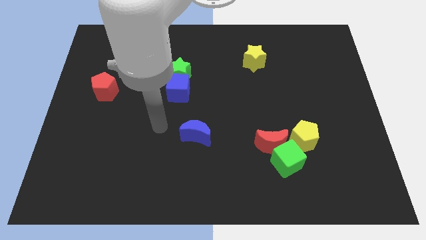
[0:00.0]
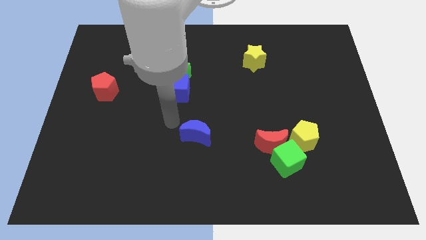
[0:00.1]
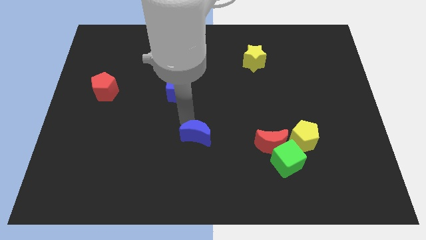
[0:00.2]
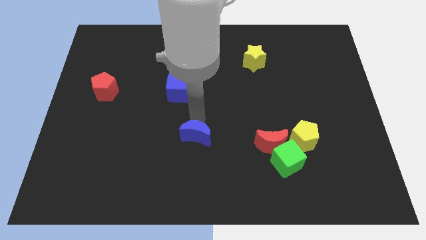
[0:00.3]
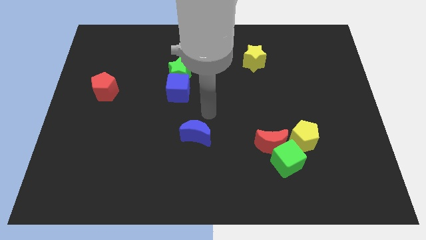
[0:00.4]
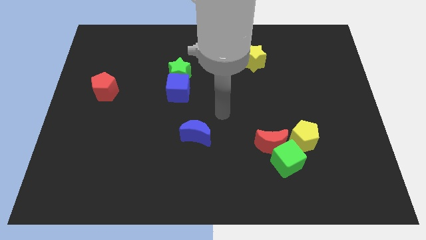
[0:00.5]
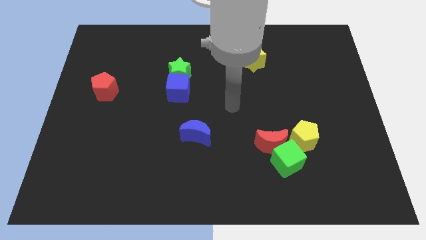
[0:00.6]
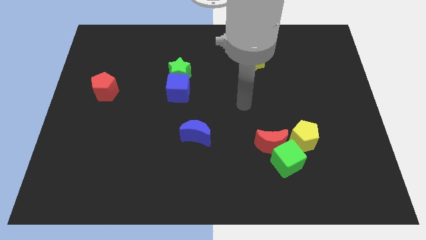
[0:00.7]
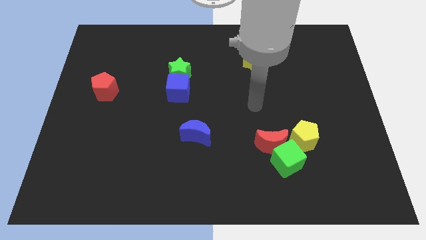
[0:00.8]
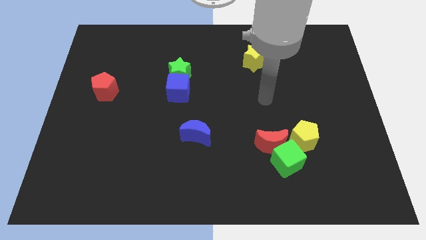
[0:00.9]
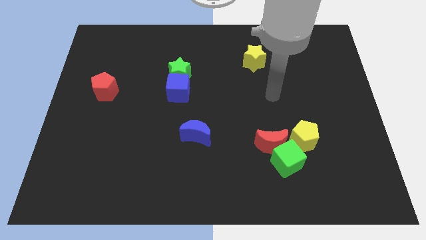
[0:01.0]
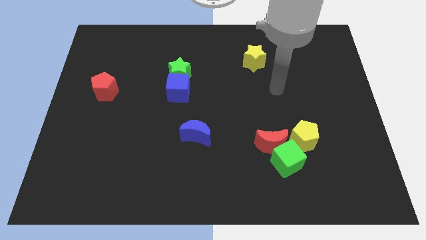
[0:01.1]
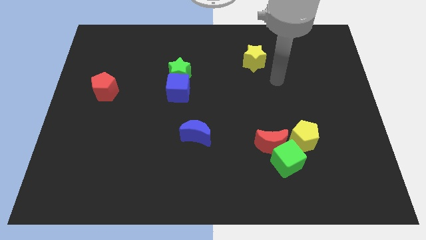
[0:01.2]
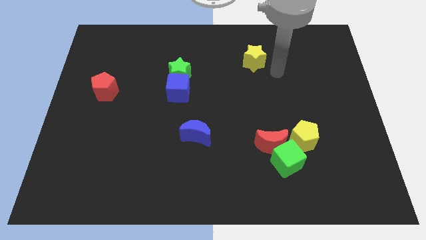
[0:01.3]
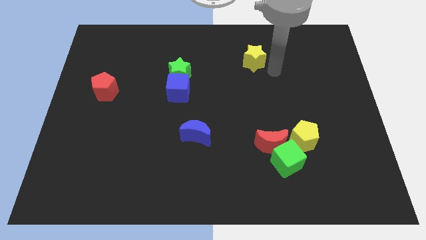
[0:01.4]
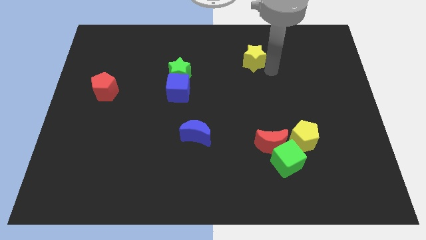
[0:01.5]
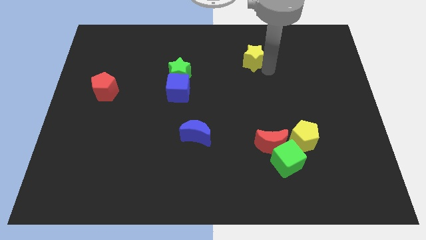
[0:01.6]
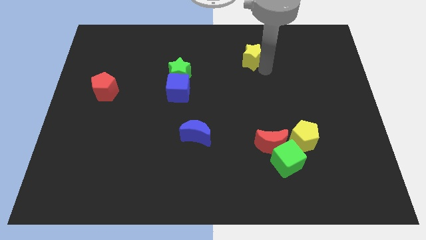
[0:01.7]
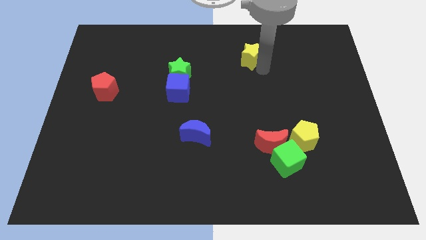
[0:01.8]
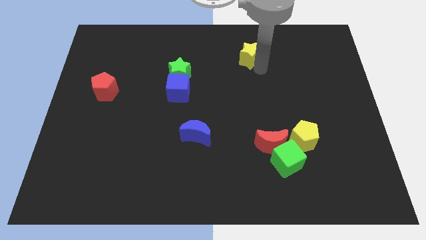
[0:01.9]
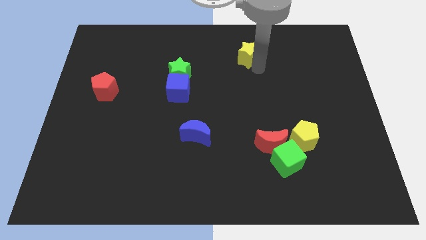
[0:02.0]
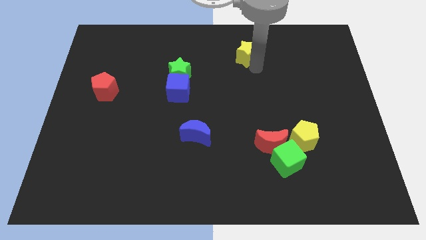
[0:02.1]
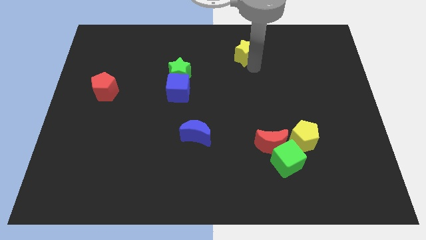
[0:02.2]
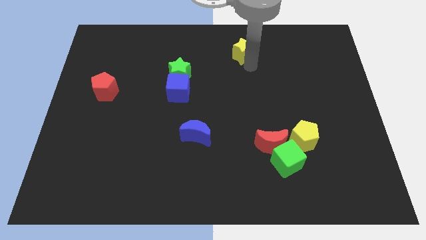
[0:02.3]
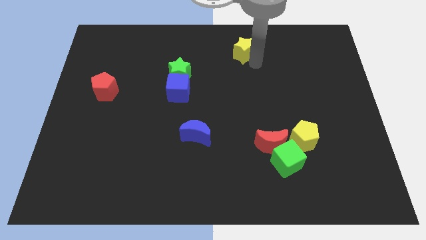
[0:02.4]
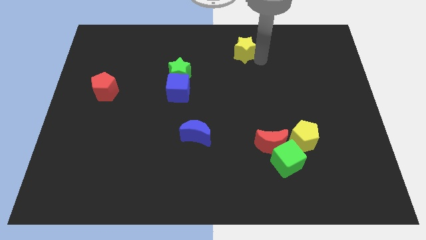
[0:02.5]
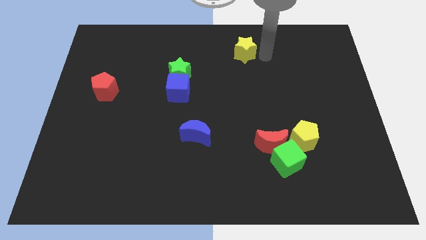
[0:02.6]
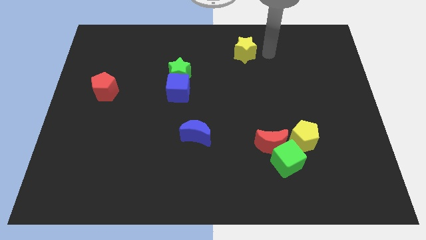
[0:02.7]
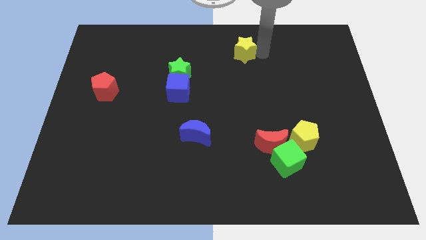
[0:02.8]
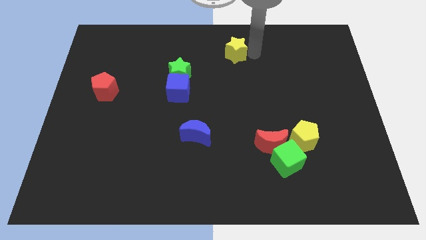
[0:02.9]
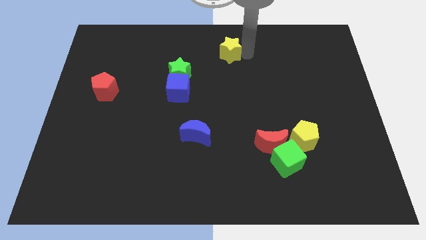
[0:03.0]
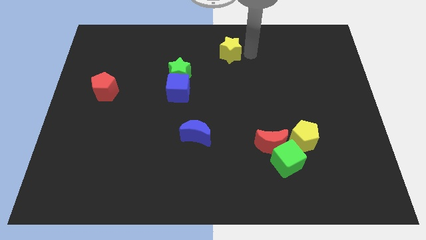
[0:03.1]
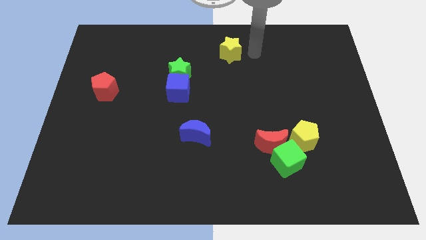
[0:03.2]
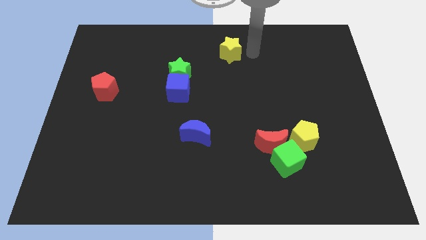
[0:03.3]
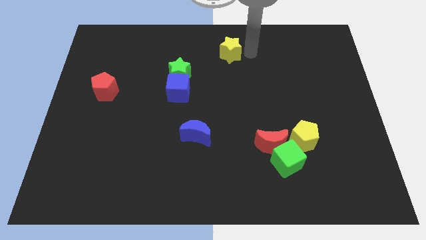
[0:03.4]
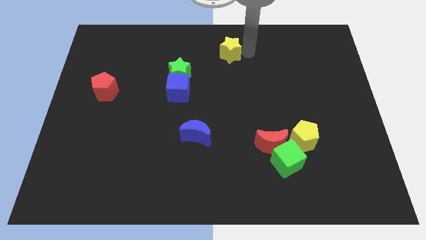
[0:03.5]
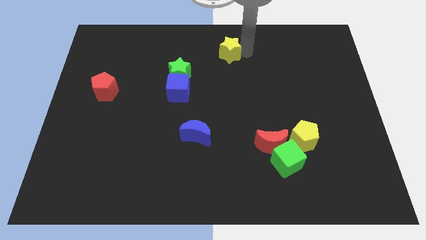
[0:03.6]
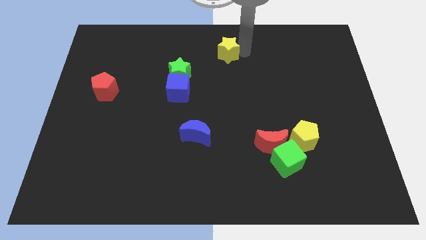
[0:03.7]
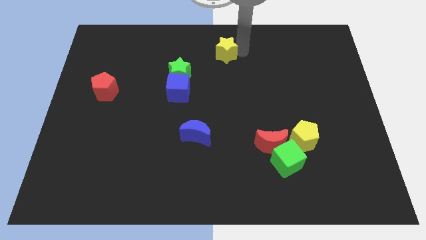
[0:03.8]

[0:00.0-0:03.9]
slide the yellow star to the left slightly

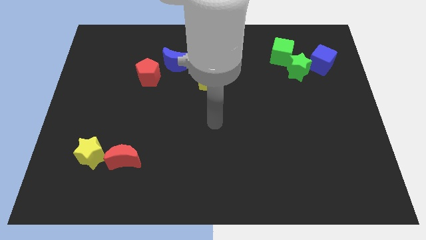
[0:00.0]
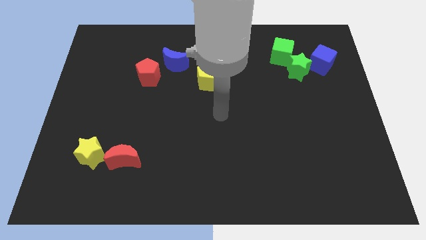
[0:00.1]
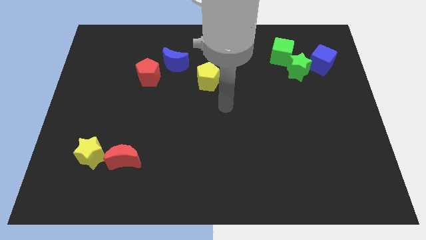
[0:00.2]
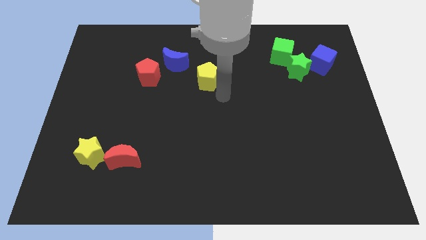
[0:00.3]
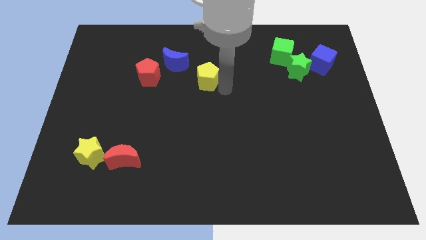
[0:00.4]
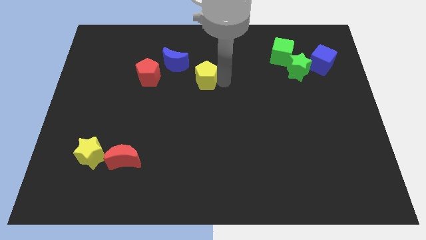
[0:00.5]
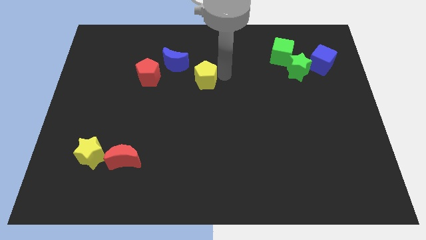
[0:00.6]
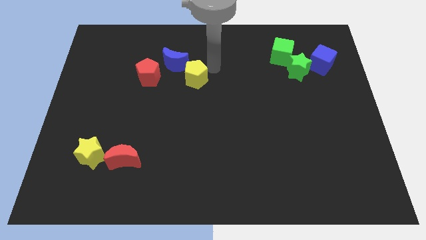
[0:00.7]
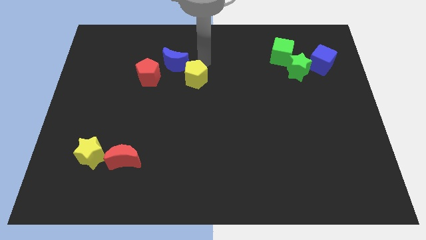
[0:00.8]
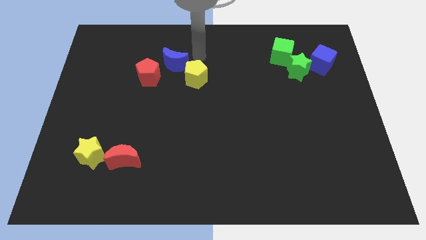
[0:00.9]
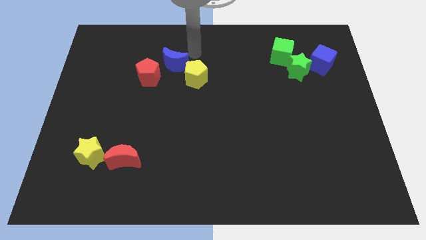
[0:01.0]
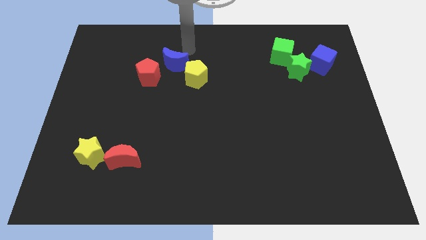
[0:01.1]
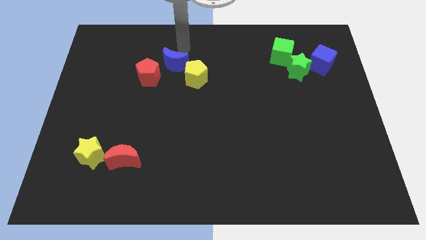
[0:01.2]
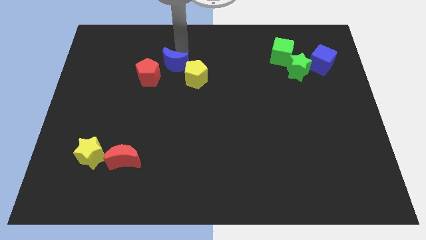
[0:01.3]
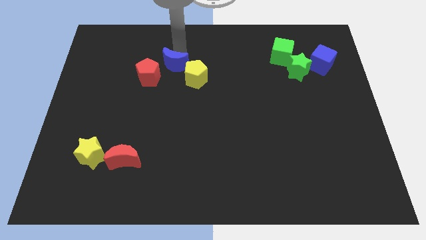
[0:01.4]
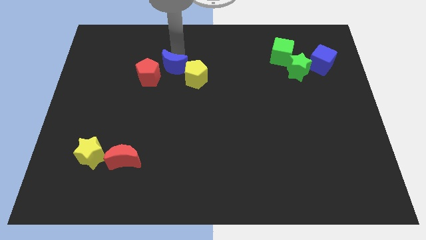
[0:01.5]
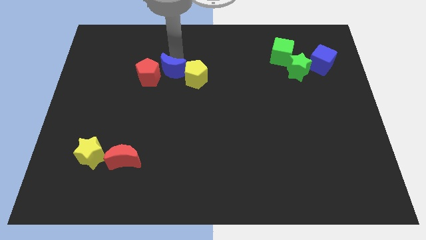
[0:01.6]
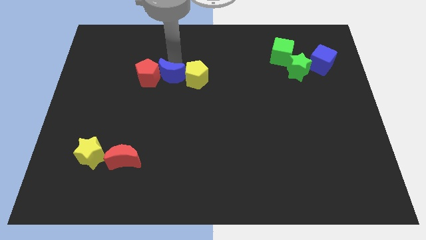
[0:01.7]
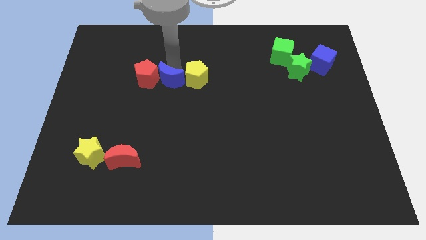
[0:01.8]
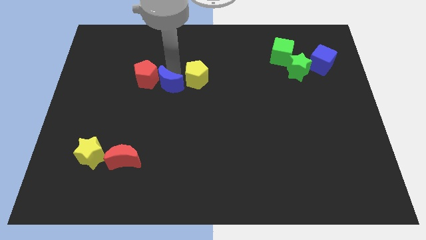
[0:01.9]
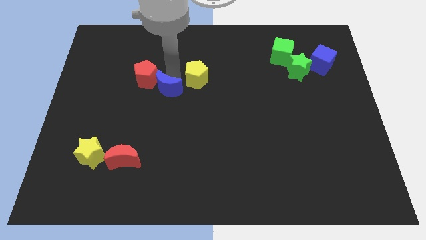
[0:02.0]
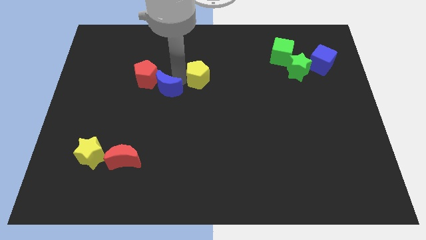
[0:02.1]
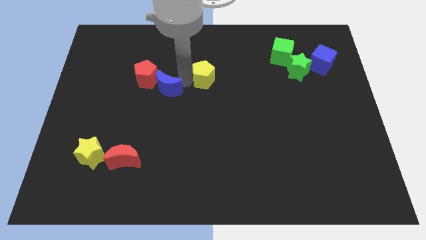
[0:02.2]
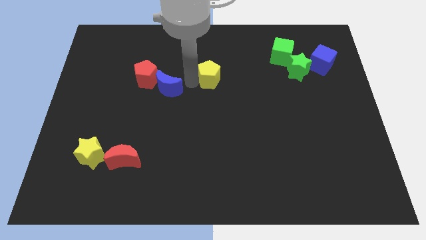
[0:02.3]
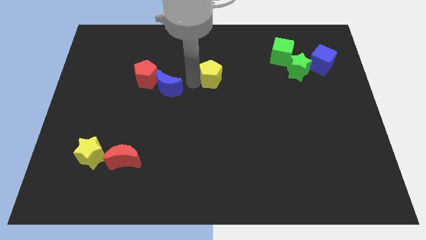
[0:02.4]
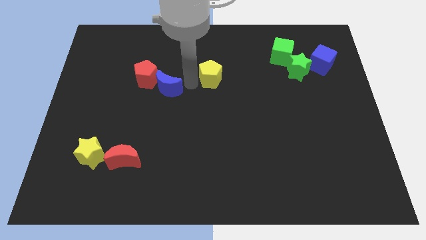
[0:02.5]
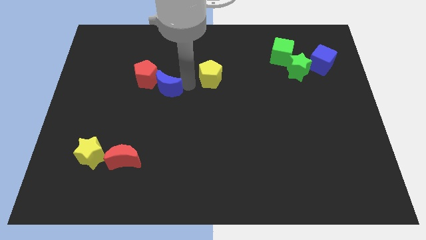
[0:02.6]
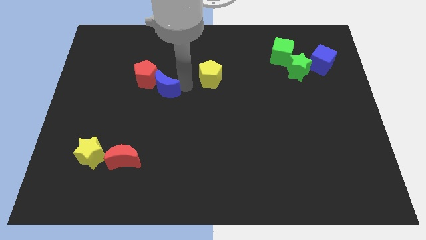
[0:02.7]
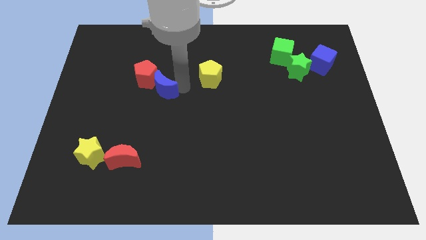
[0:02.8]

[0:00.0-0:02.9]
slightly move the blue moon downwards and to the left

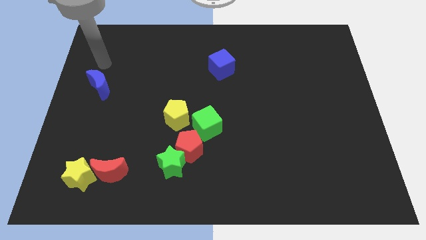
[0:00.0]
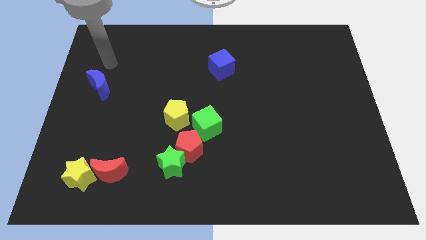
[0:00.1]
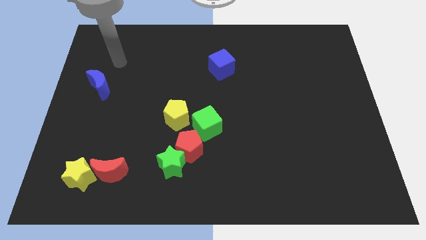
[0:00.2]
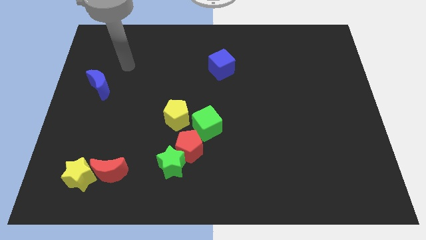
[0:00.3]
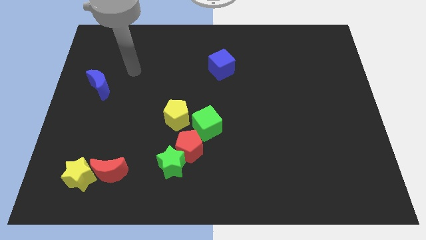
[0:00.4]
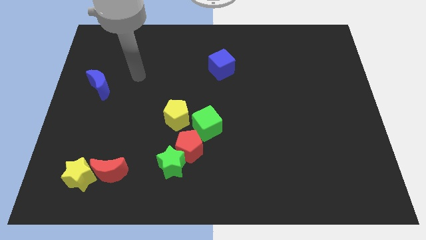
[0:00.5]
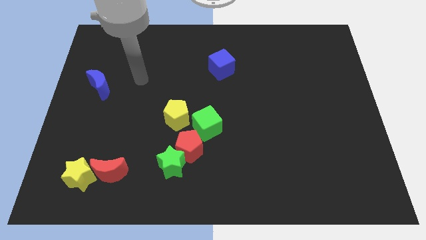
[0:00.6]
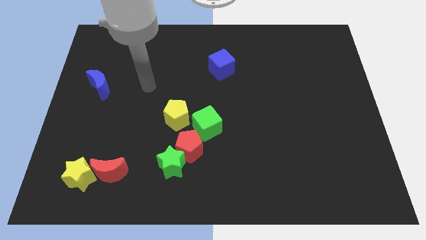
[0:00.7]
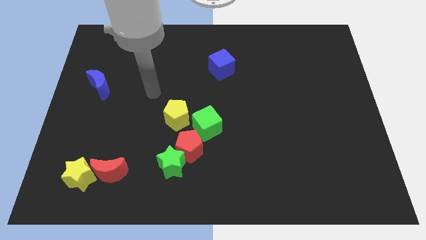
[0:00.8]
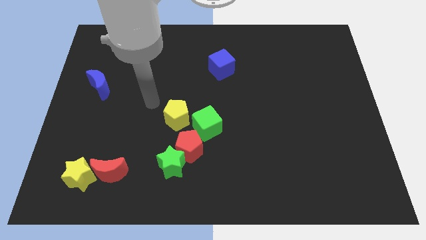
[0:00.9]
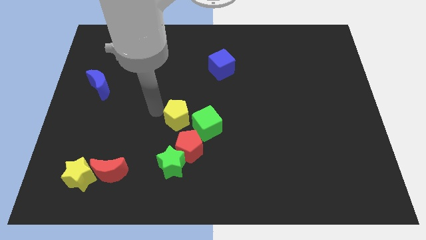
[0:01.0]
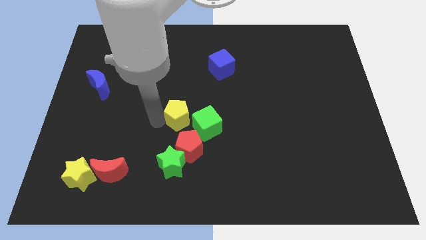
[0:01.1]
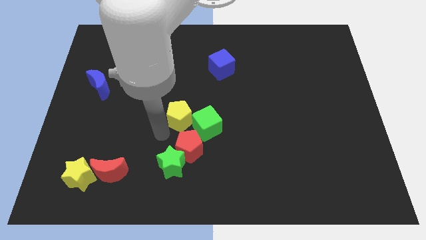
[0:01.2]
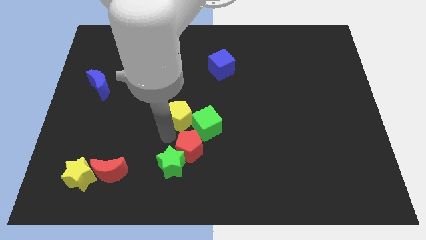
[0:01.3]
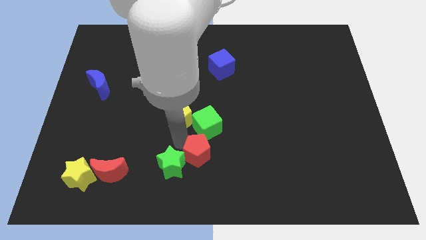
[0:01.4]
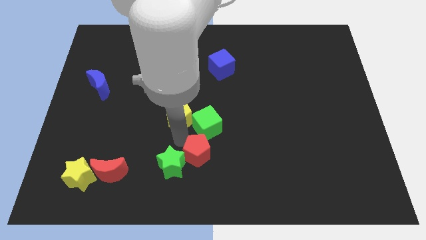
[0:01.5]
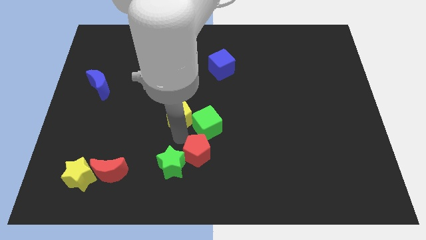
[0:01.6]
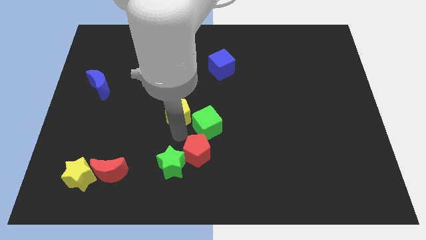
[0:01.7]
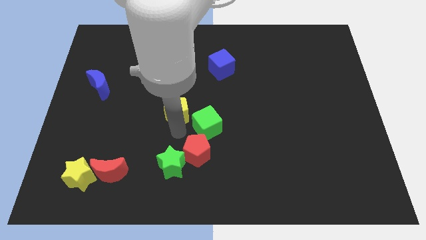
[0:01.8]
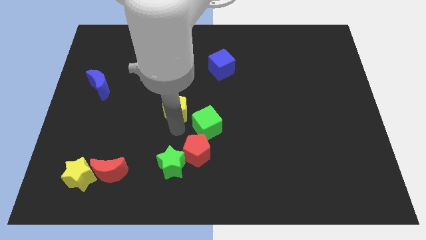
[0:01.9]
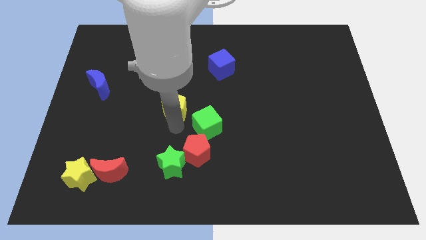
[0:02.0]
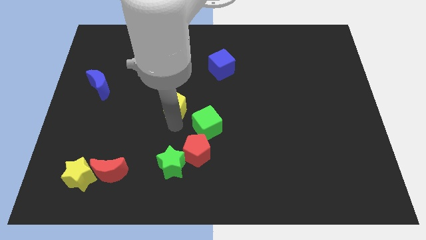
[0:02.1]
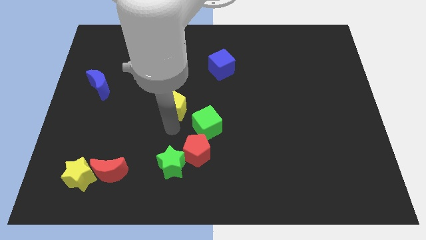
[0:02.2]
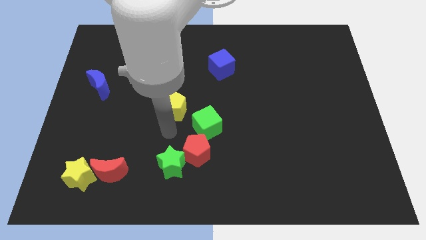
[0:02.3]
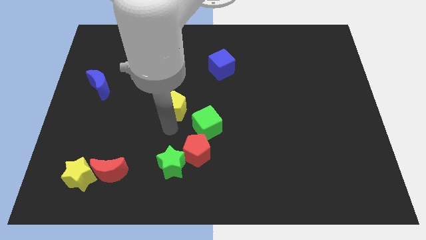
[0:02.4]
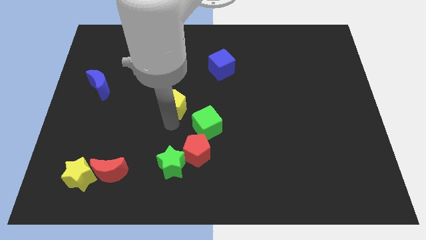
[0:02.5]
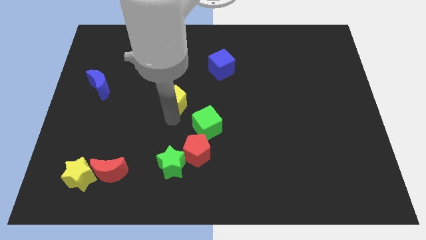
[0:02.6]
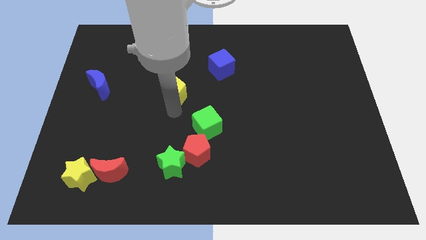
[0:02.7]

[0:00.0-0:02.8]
move the yellow pentagon up slightly
